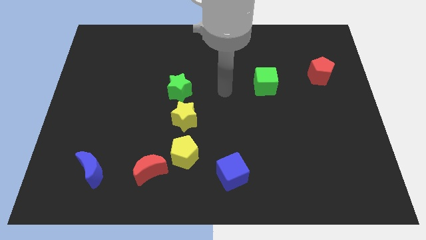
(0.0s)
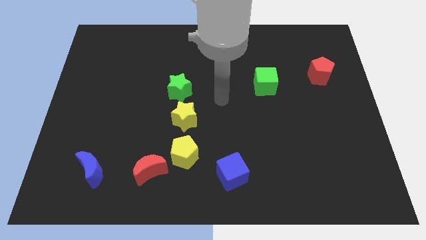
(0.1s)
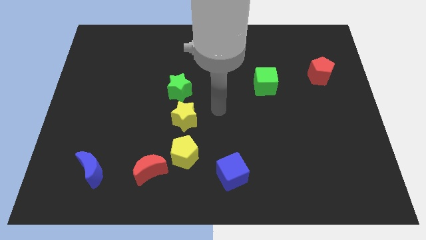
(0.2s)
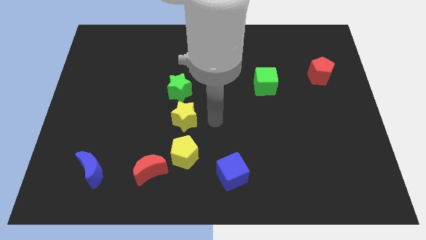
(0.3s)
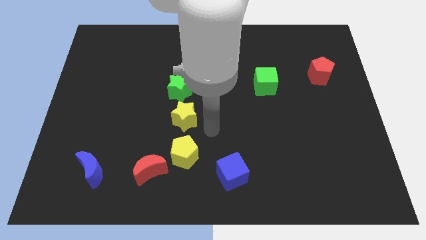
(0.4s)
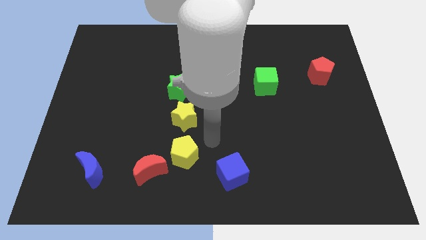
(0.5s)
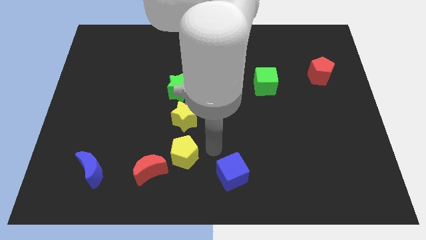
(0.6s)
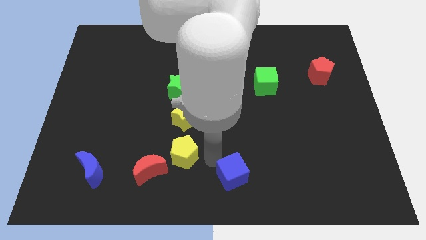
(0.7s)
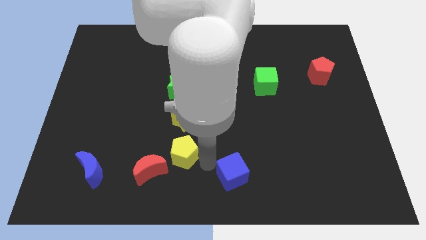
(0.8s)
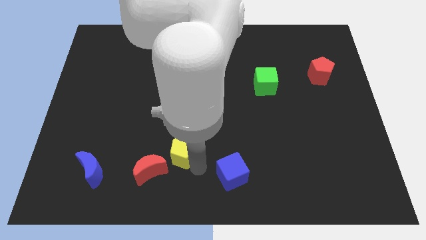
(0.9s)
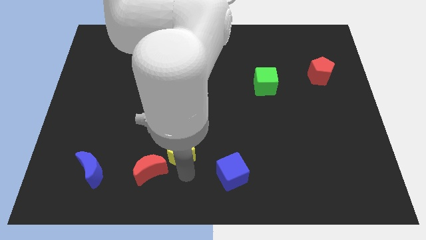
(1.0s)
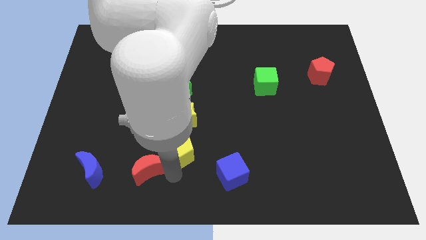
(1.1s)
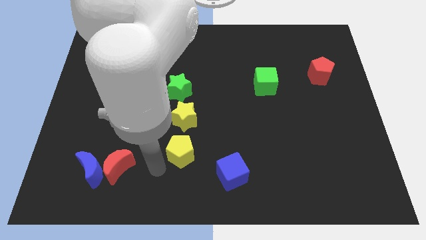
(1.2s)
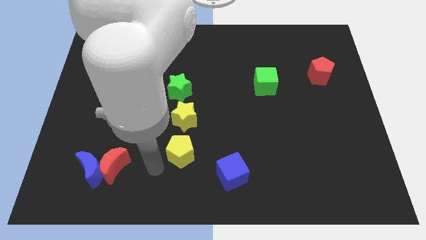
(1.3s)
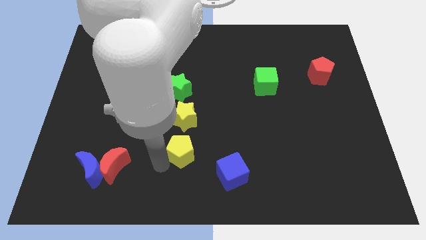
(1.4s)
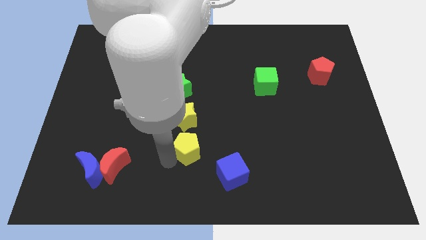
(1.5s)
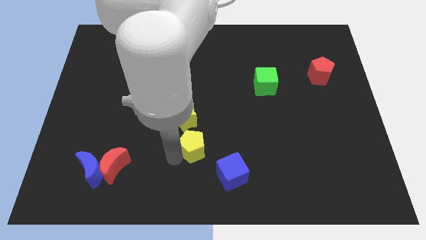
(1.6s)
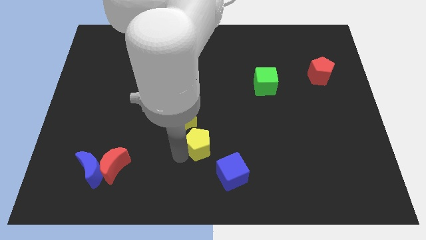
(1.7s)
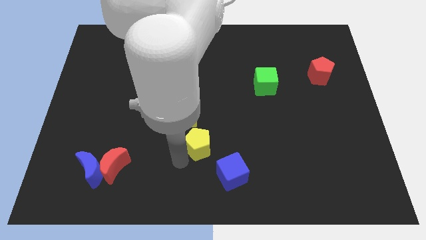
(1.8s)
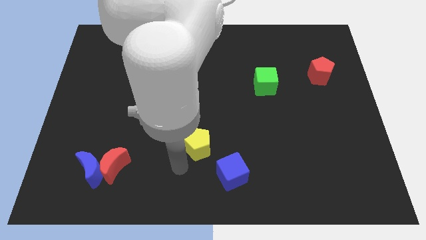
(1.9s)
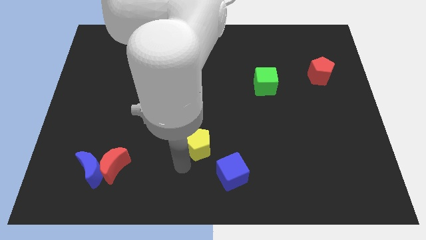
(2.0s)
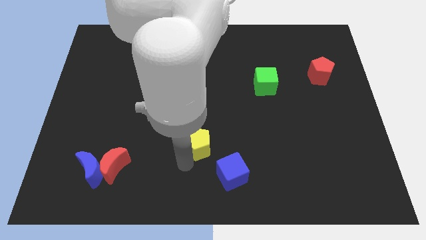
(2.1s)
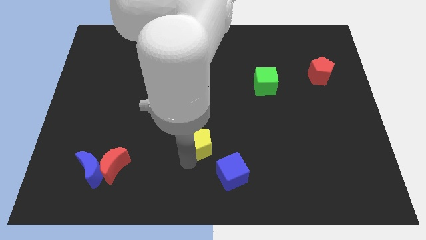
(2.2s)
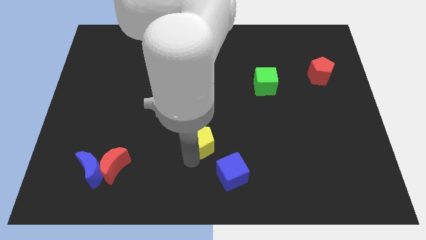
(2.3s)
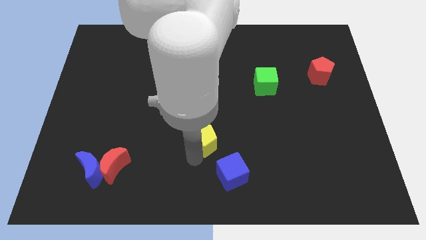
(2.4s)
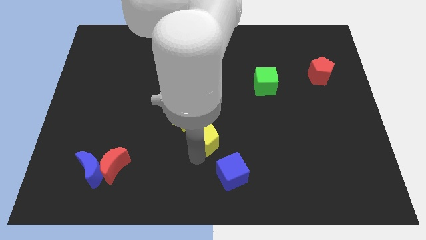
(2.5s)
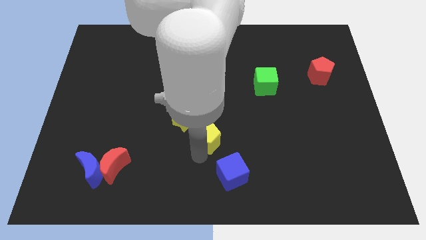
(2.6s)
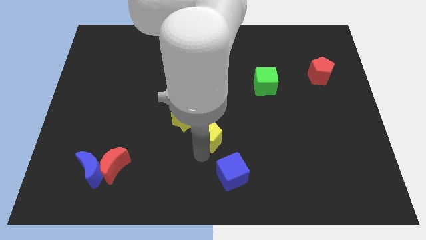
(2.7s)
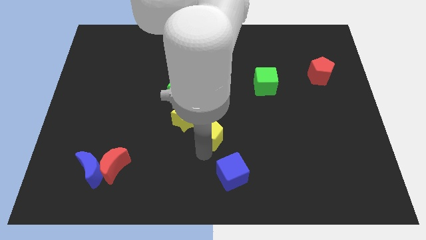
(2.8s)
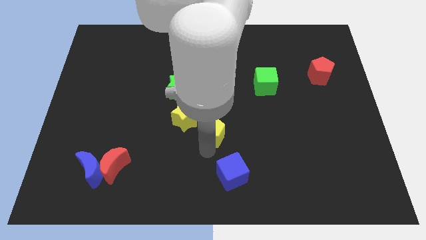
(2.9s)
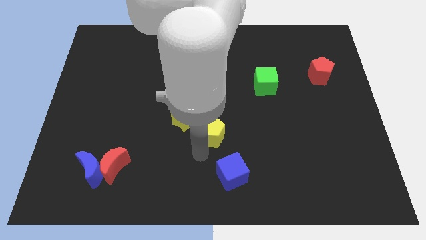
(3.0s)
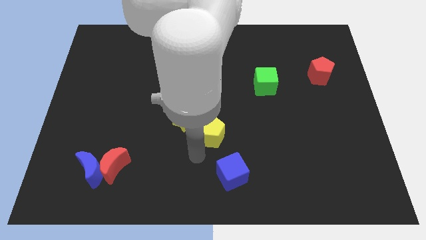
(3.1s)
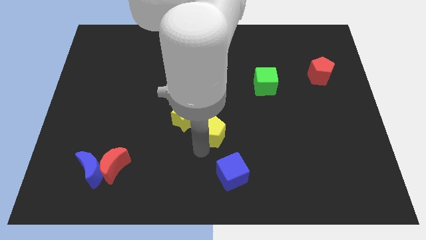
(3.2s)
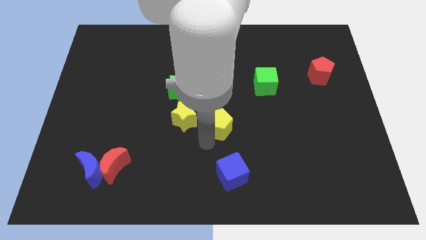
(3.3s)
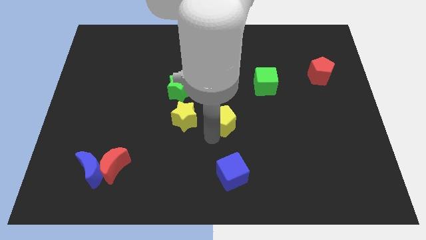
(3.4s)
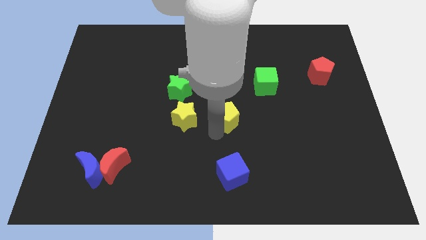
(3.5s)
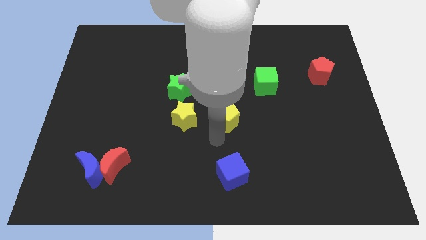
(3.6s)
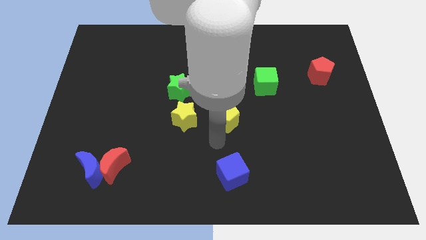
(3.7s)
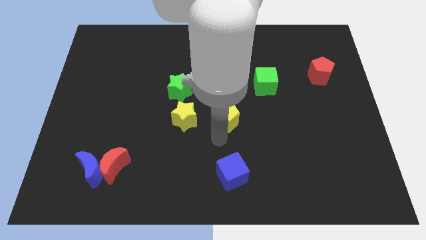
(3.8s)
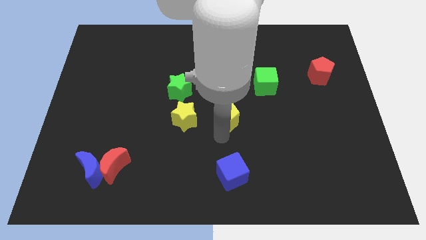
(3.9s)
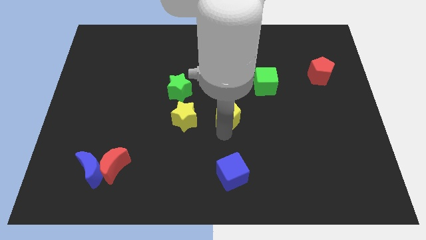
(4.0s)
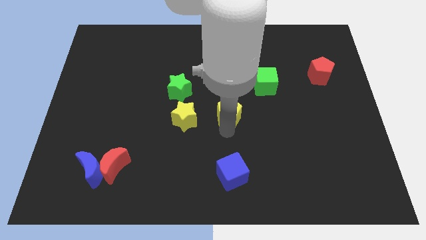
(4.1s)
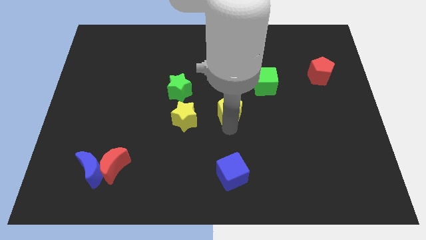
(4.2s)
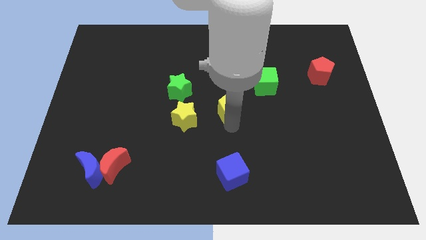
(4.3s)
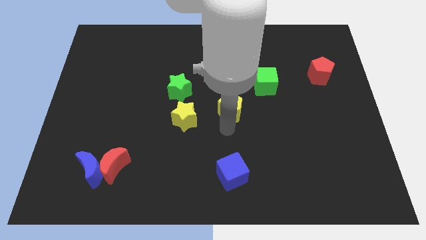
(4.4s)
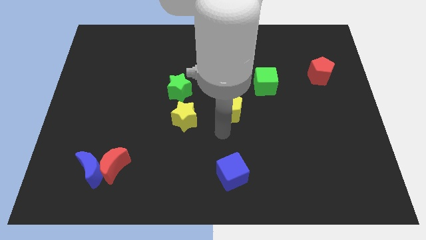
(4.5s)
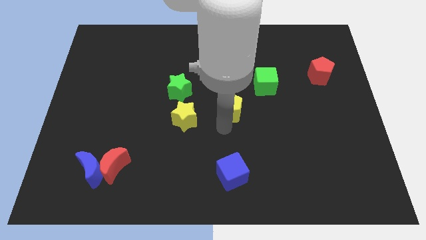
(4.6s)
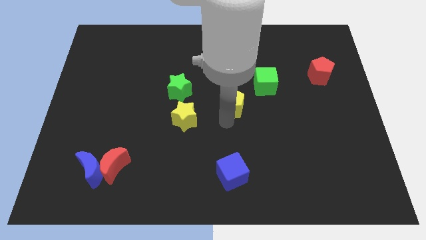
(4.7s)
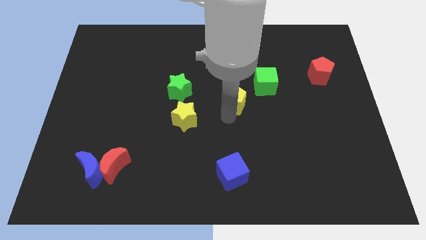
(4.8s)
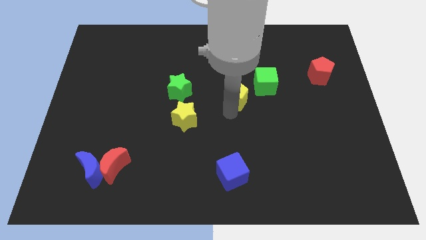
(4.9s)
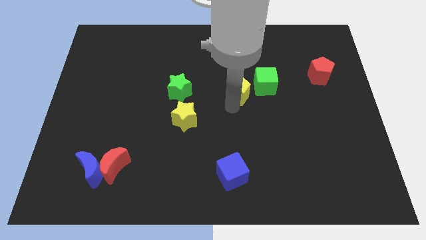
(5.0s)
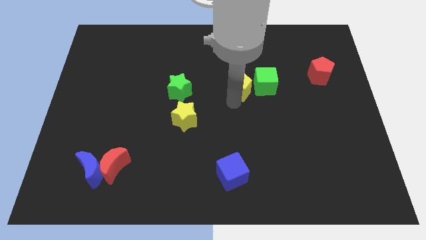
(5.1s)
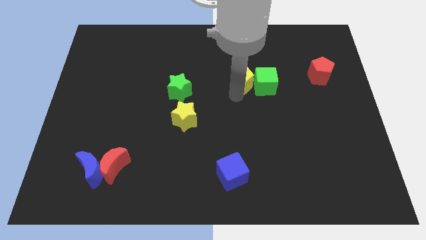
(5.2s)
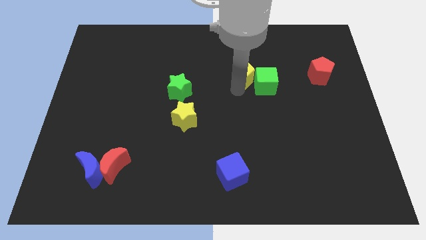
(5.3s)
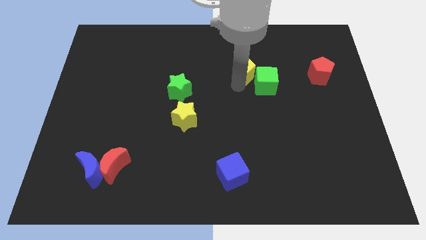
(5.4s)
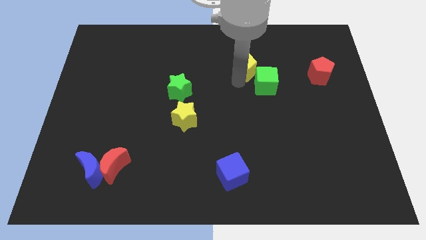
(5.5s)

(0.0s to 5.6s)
put the yellow pentagon to the top of the green cube

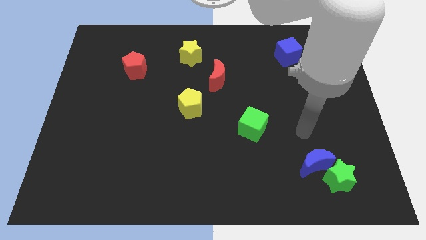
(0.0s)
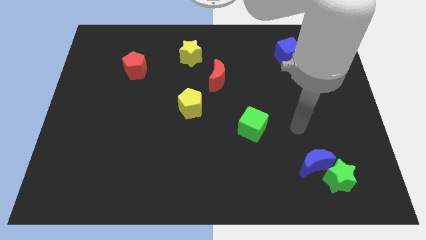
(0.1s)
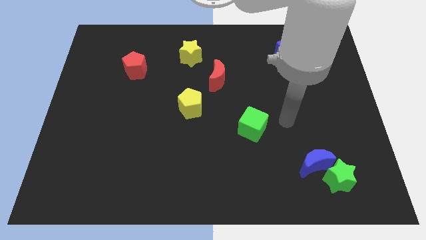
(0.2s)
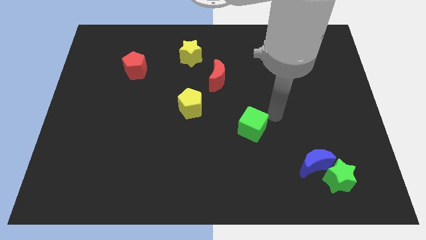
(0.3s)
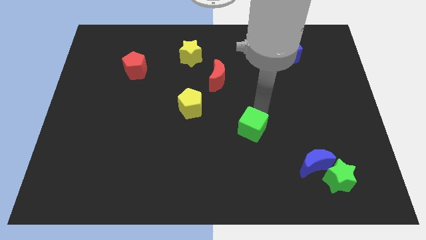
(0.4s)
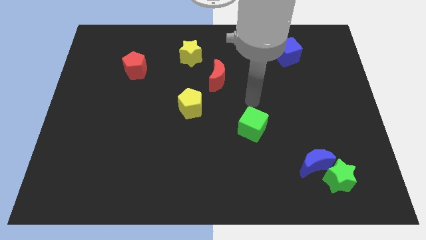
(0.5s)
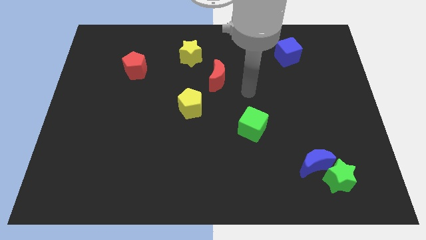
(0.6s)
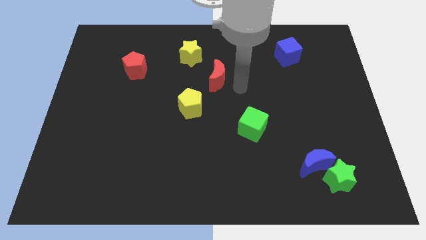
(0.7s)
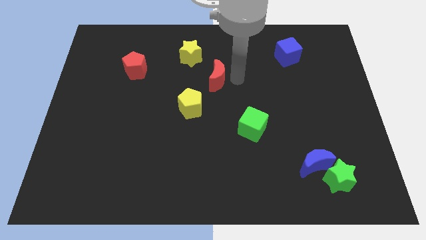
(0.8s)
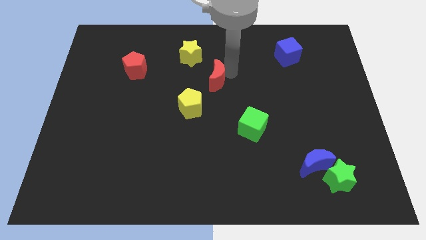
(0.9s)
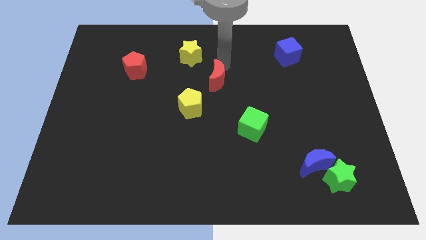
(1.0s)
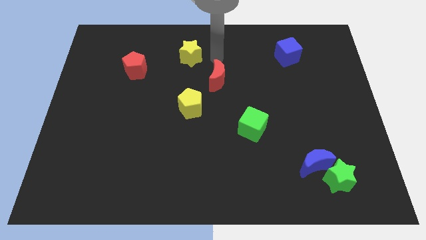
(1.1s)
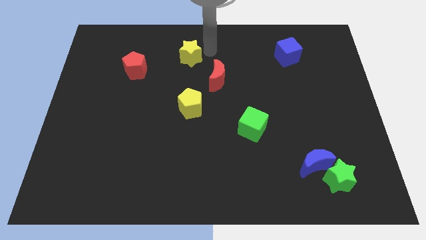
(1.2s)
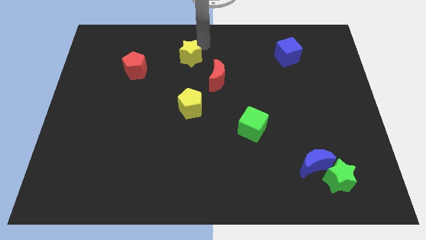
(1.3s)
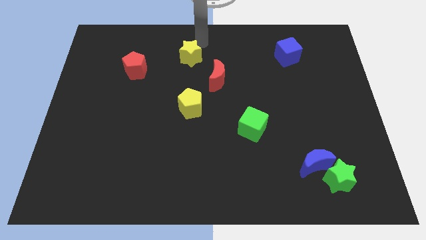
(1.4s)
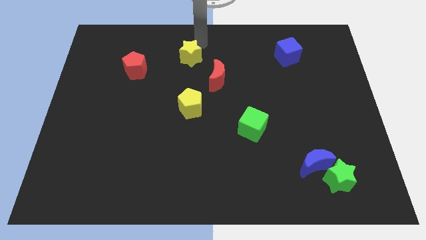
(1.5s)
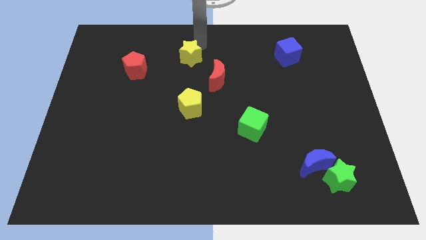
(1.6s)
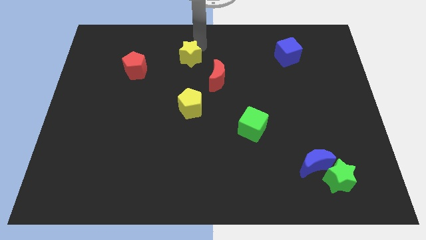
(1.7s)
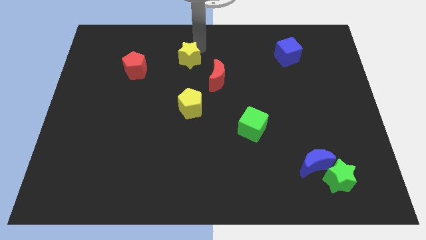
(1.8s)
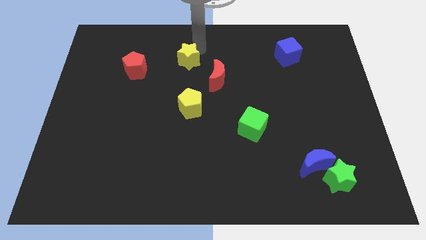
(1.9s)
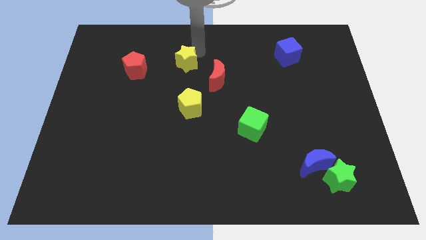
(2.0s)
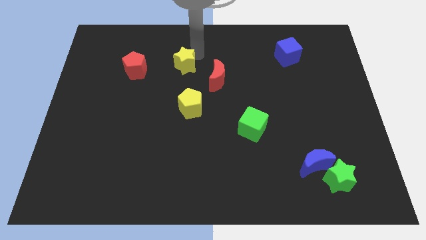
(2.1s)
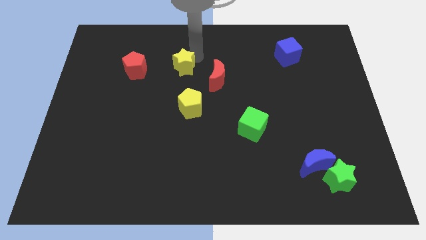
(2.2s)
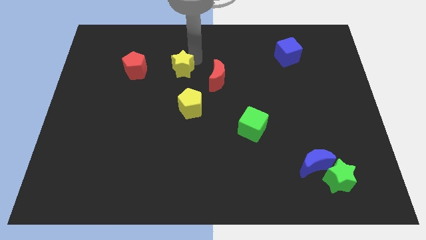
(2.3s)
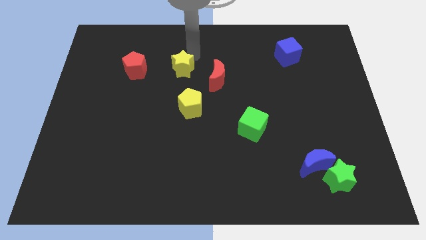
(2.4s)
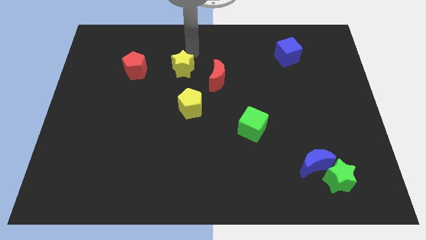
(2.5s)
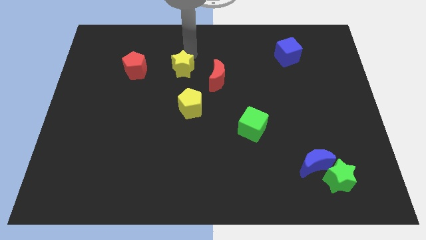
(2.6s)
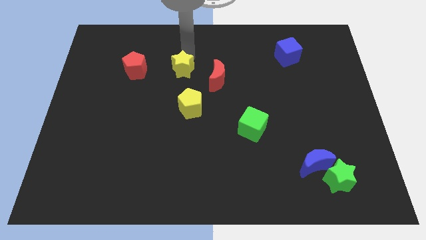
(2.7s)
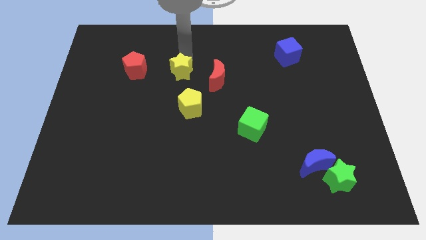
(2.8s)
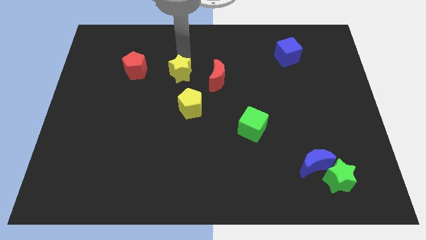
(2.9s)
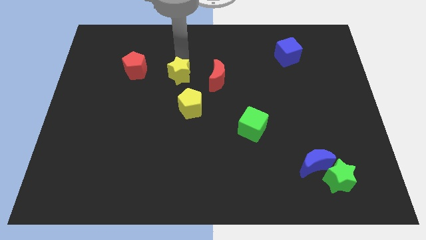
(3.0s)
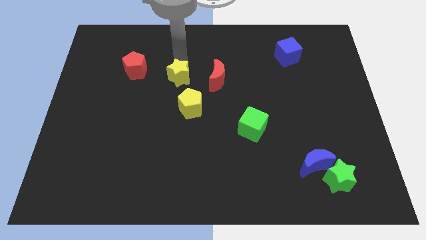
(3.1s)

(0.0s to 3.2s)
push the yellow star to the top left of the yellow pentagon

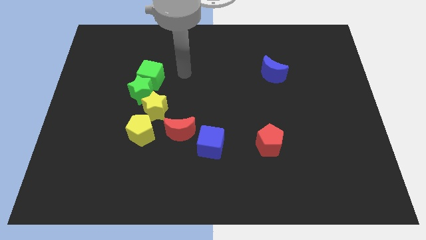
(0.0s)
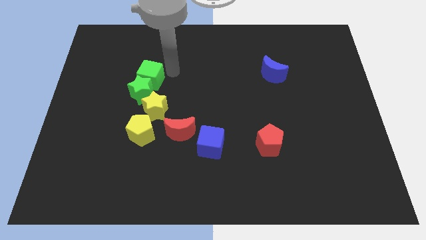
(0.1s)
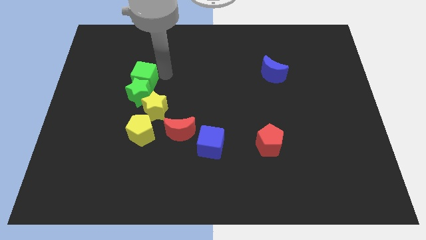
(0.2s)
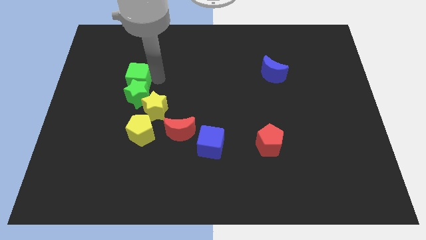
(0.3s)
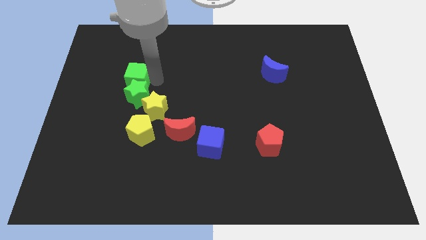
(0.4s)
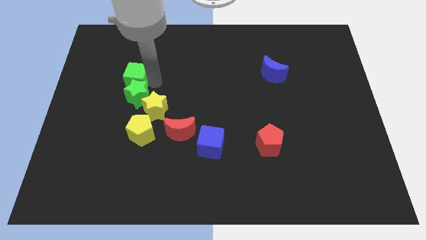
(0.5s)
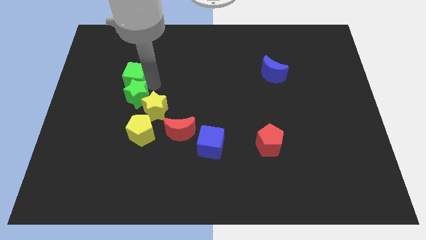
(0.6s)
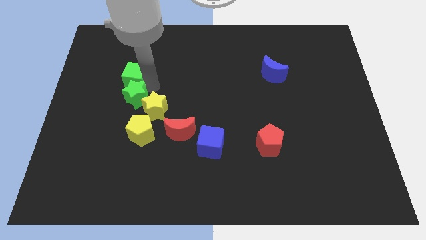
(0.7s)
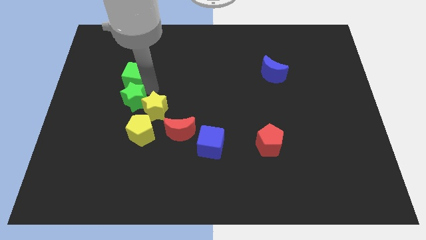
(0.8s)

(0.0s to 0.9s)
slide the green star diagonally up and to the left of the yellow pentagon
